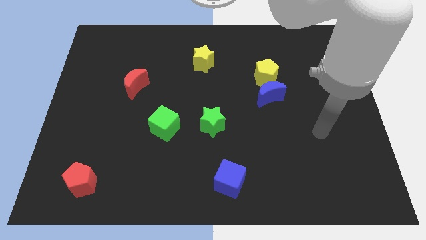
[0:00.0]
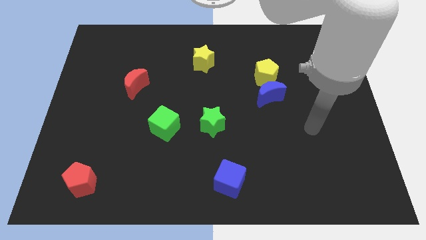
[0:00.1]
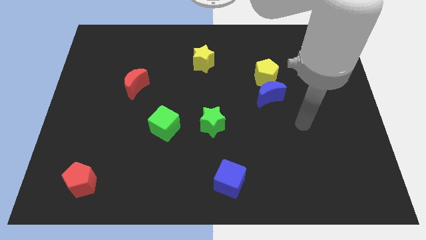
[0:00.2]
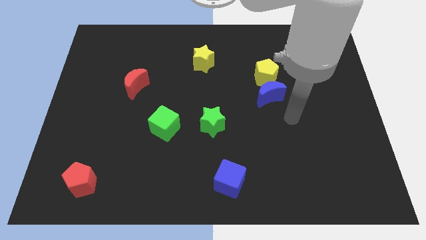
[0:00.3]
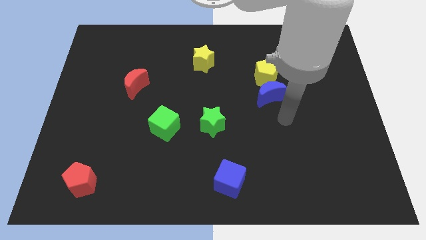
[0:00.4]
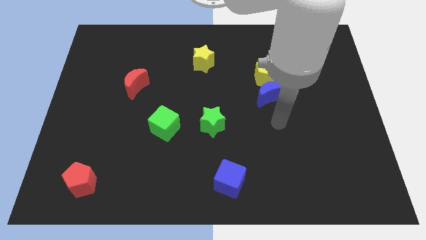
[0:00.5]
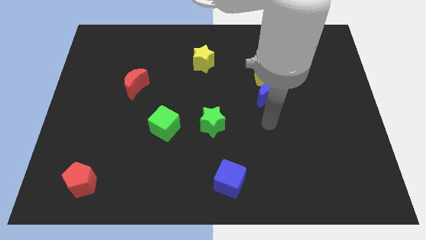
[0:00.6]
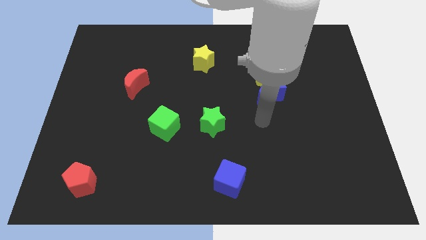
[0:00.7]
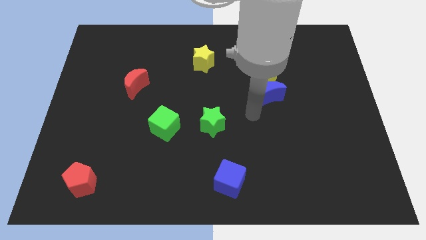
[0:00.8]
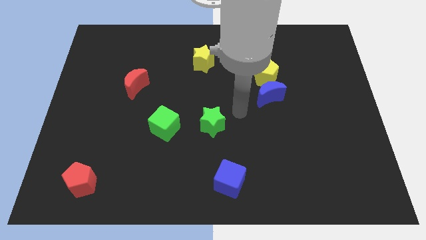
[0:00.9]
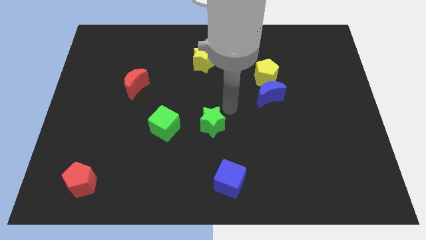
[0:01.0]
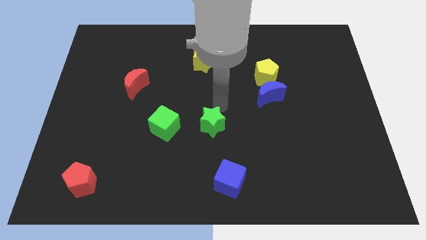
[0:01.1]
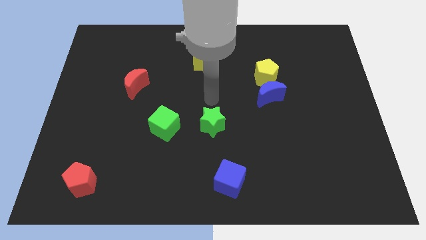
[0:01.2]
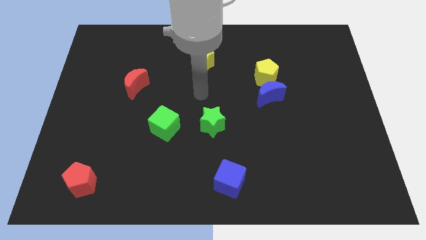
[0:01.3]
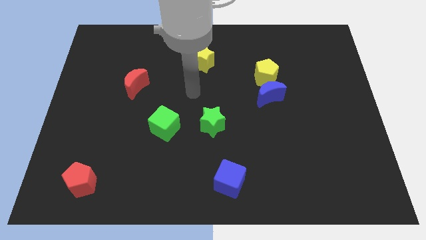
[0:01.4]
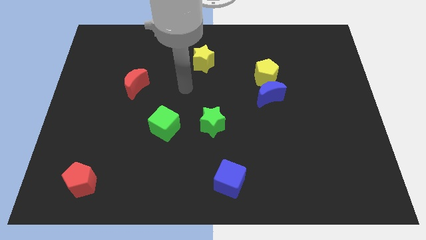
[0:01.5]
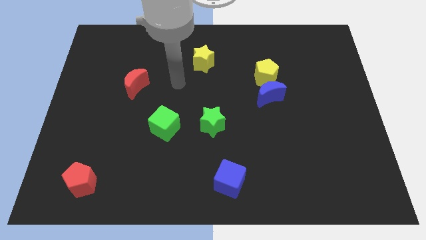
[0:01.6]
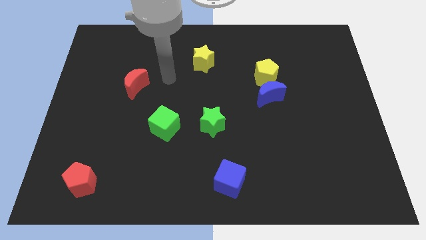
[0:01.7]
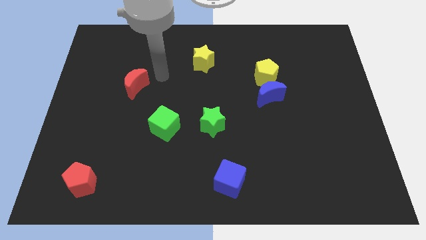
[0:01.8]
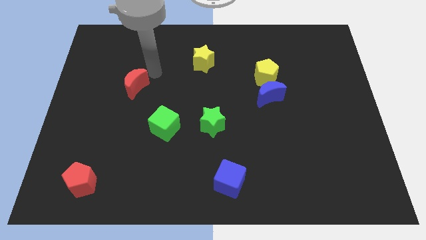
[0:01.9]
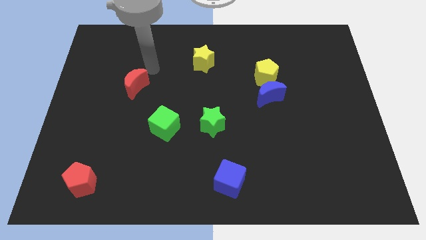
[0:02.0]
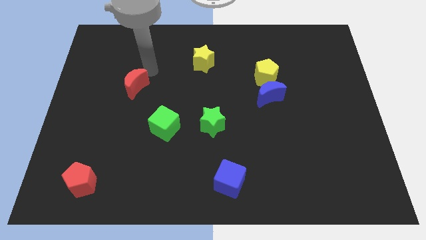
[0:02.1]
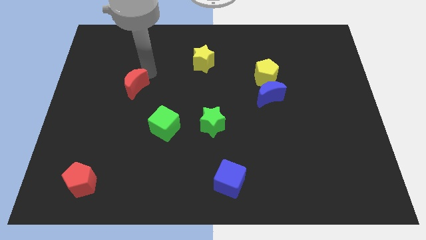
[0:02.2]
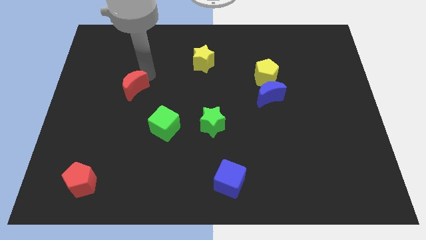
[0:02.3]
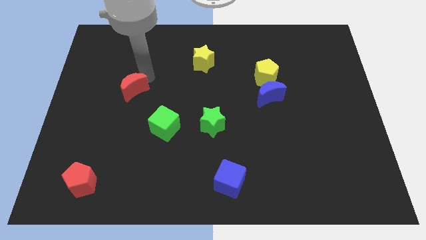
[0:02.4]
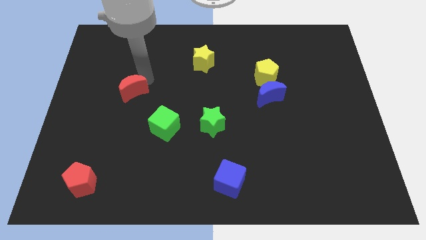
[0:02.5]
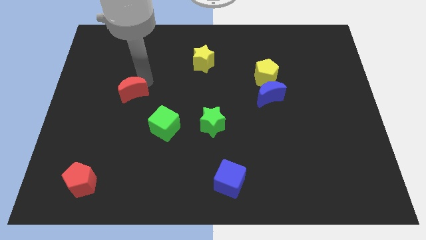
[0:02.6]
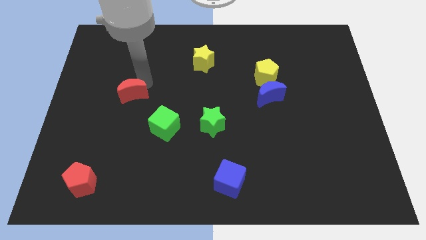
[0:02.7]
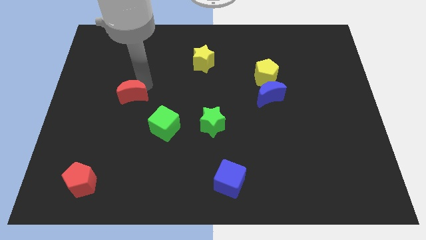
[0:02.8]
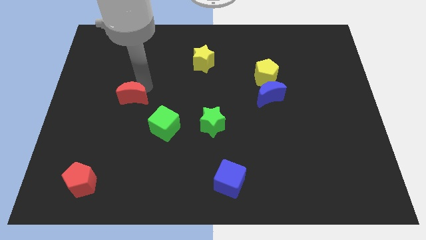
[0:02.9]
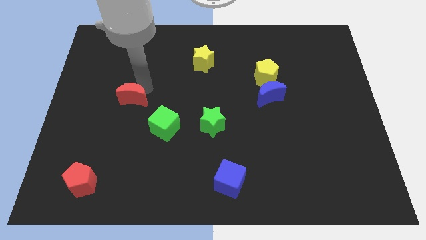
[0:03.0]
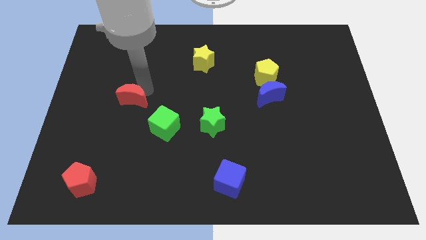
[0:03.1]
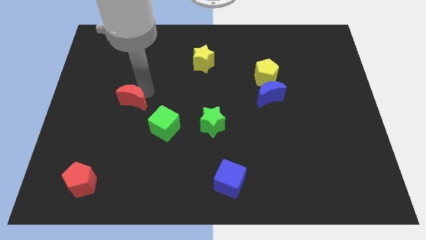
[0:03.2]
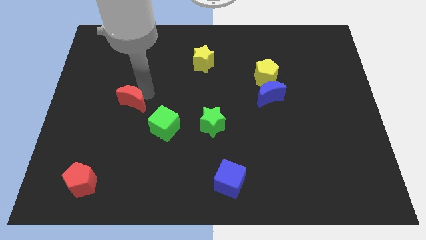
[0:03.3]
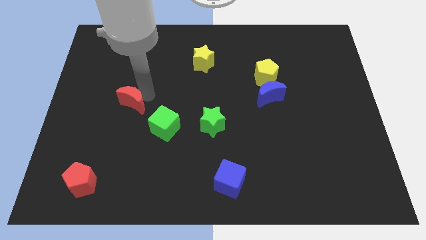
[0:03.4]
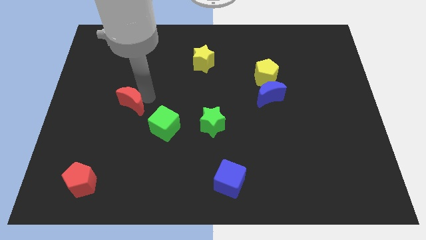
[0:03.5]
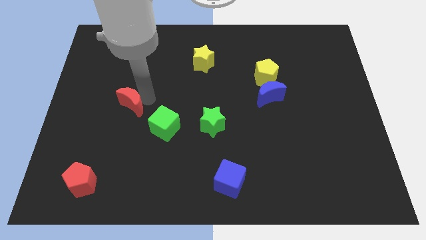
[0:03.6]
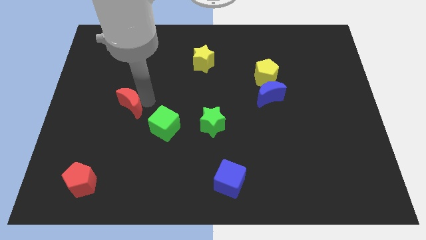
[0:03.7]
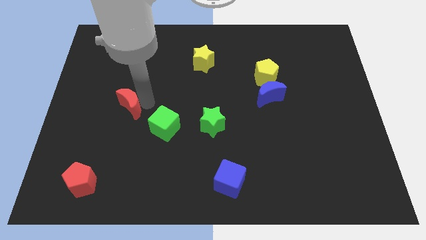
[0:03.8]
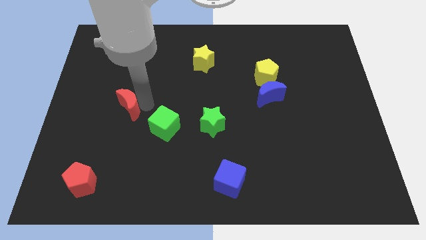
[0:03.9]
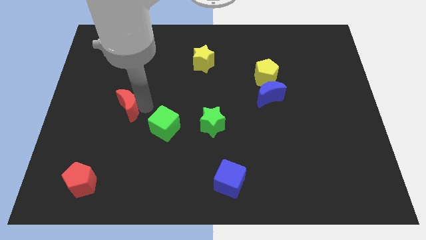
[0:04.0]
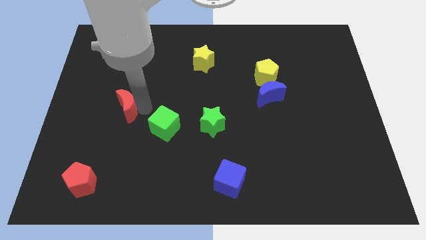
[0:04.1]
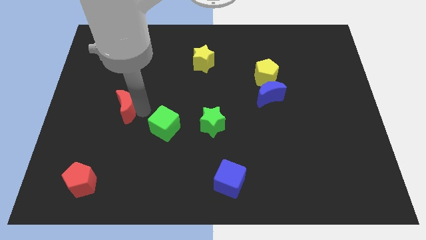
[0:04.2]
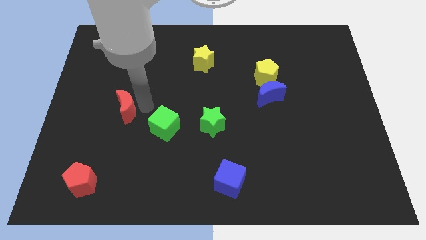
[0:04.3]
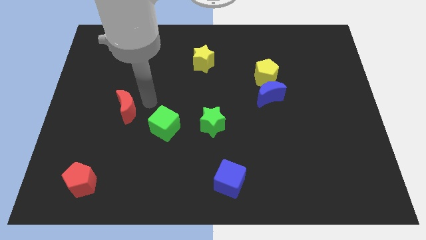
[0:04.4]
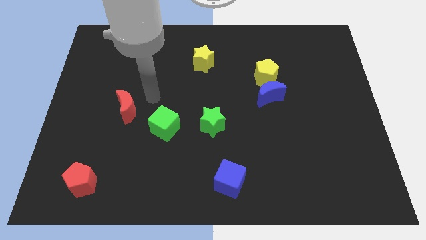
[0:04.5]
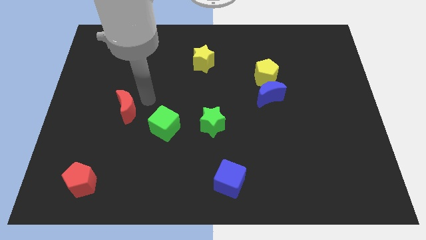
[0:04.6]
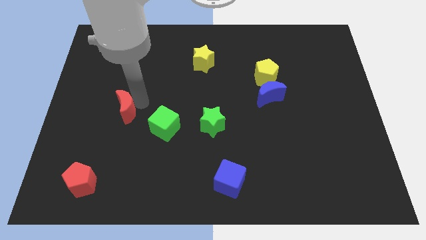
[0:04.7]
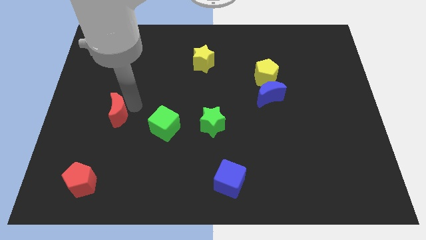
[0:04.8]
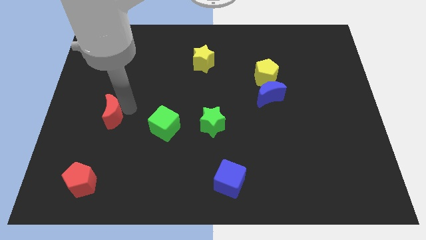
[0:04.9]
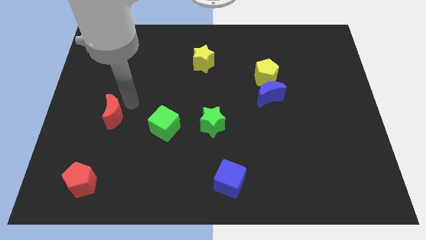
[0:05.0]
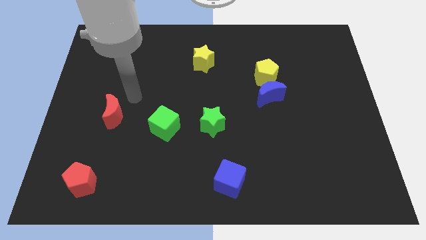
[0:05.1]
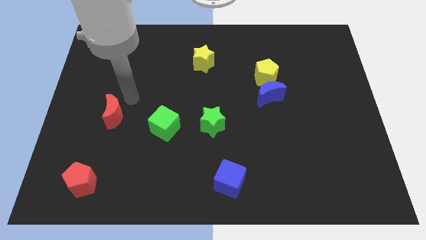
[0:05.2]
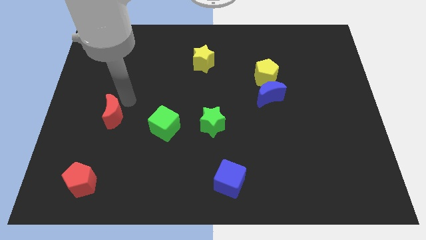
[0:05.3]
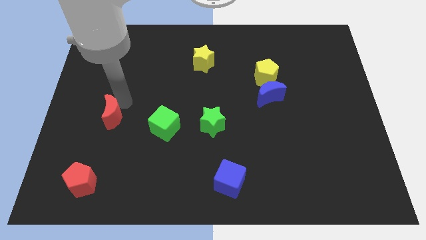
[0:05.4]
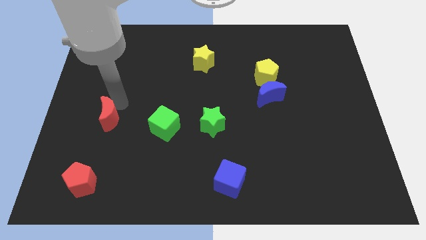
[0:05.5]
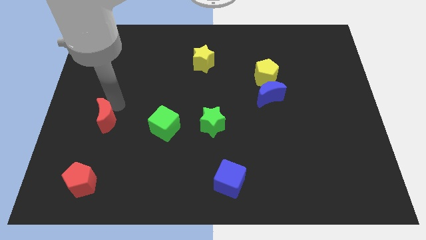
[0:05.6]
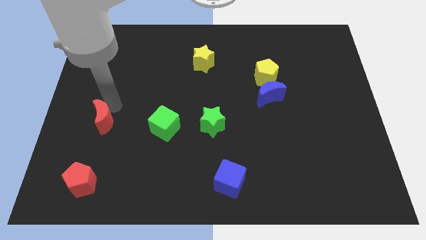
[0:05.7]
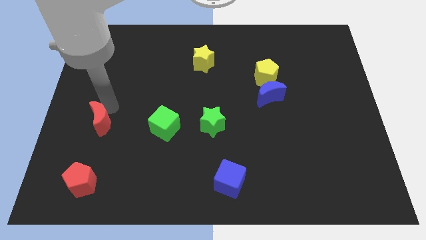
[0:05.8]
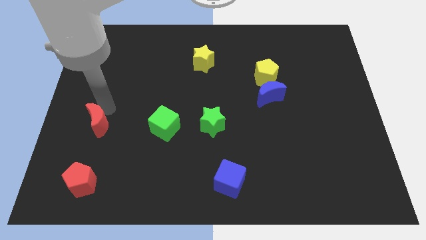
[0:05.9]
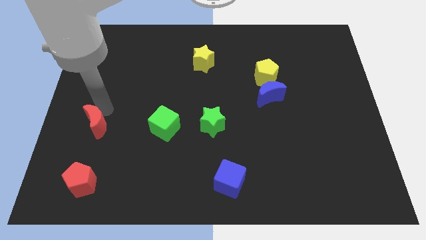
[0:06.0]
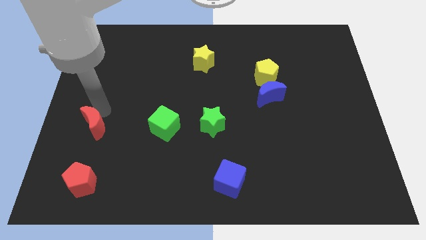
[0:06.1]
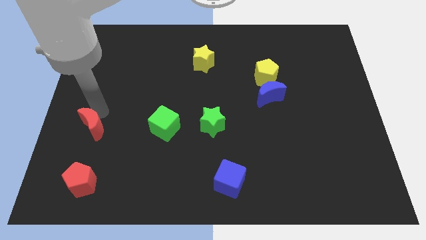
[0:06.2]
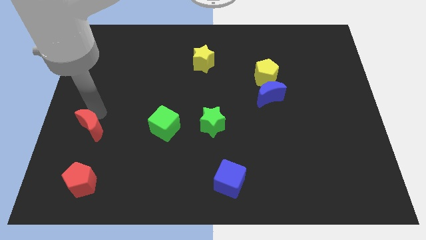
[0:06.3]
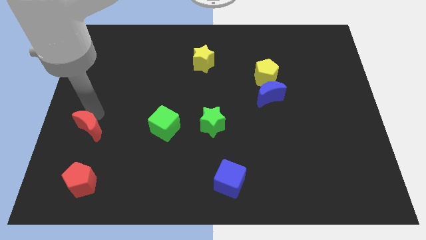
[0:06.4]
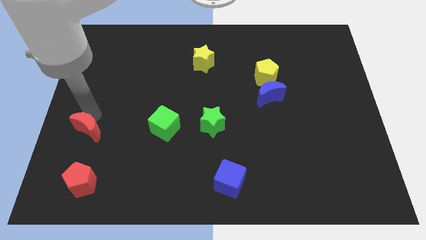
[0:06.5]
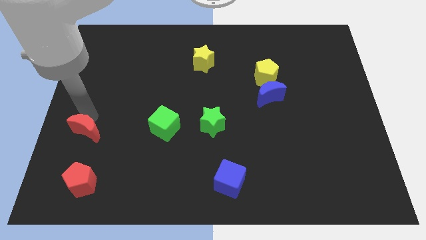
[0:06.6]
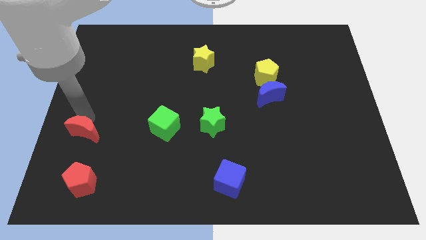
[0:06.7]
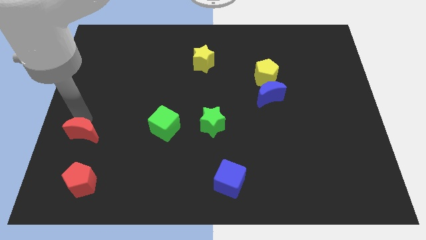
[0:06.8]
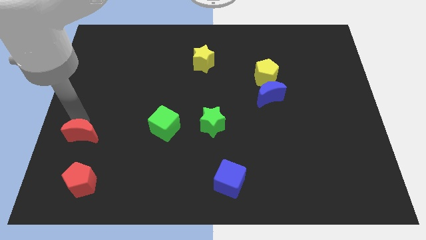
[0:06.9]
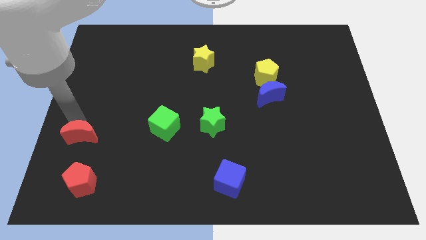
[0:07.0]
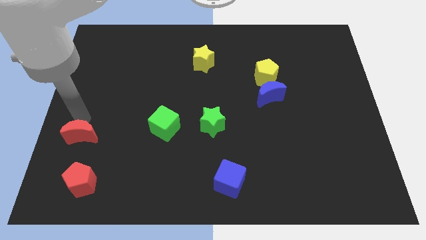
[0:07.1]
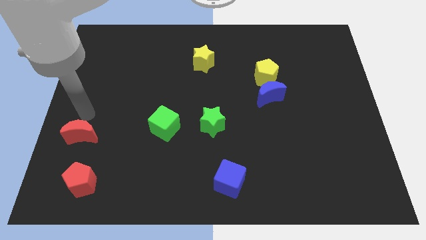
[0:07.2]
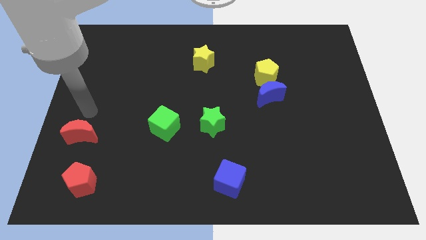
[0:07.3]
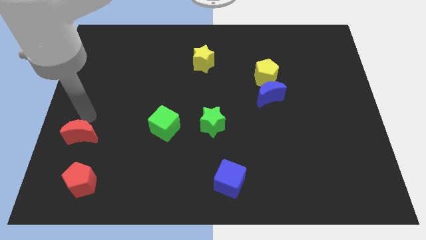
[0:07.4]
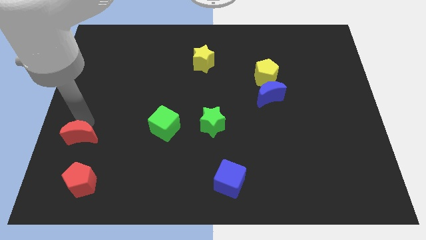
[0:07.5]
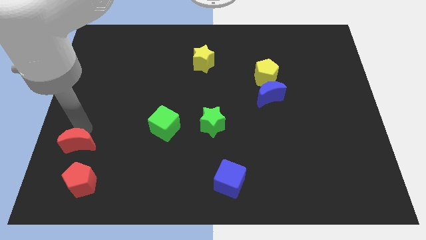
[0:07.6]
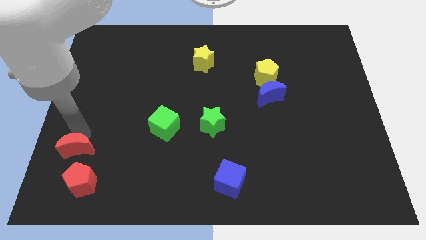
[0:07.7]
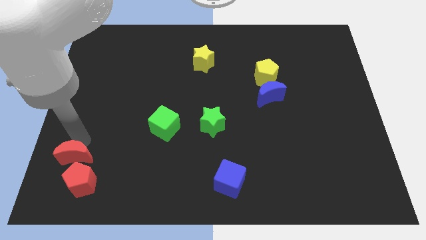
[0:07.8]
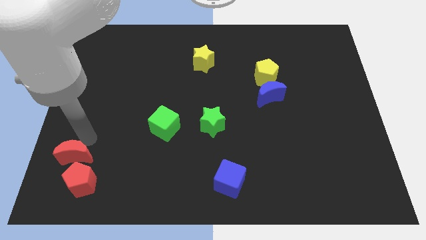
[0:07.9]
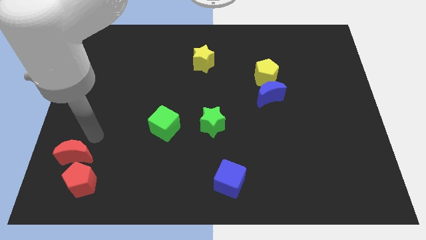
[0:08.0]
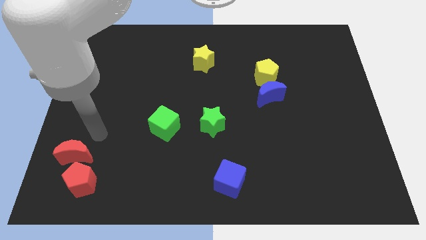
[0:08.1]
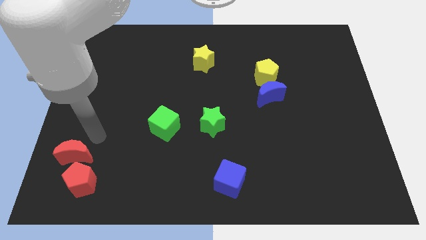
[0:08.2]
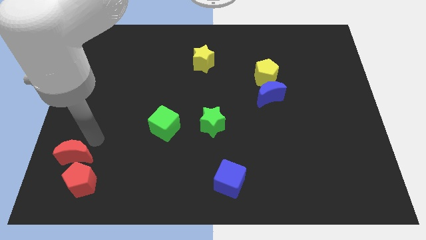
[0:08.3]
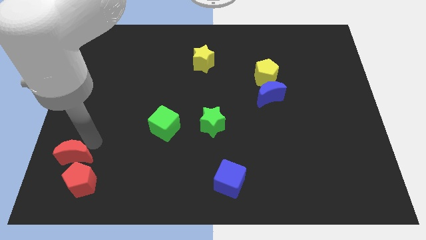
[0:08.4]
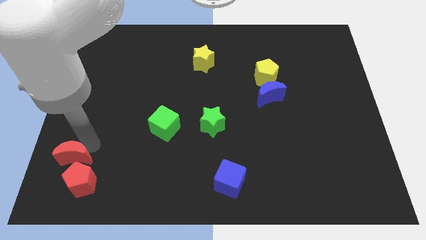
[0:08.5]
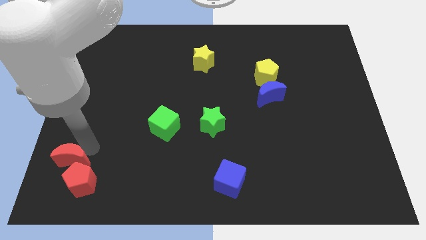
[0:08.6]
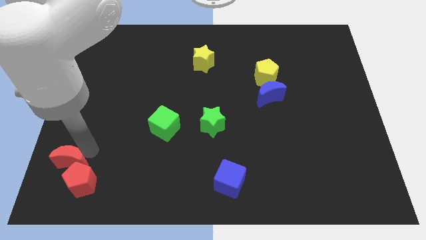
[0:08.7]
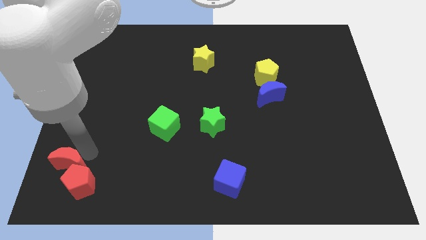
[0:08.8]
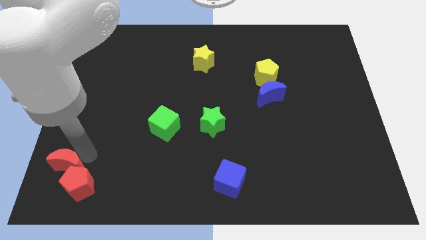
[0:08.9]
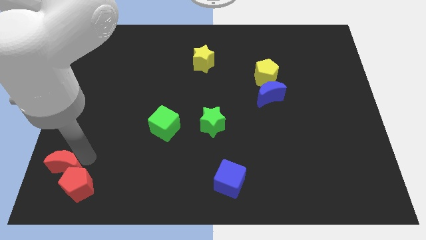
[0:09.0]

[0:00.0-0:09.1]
slide the red moon to the bottom left
